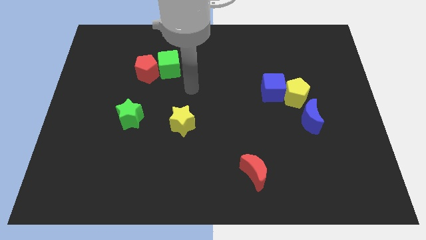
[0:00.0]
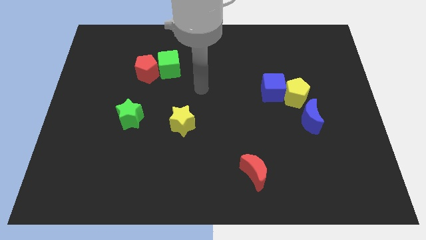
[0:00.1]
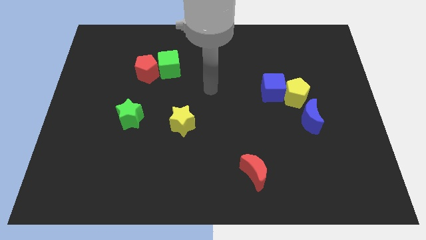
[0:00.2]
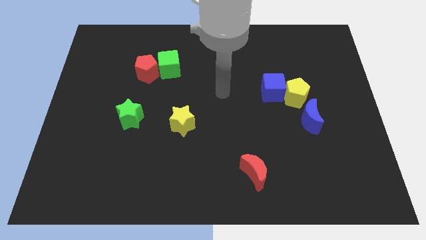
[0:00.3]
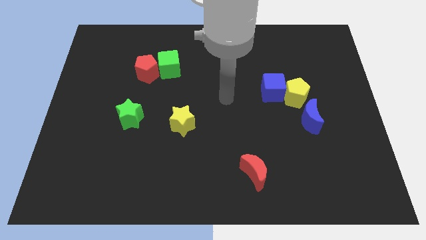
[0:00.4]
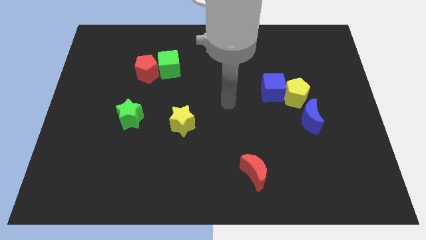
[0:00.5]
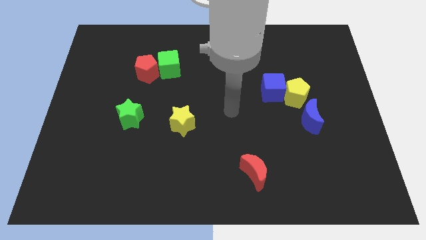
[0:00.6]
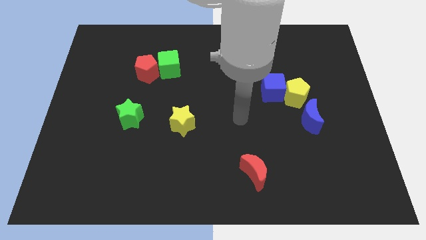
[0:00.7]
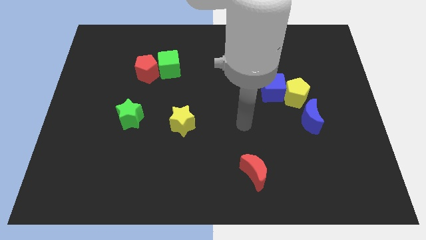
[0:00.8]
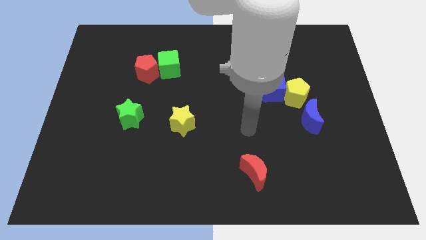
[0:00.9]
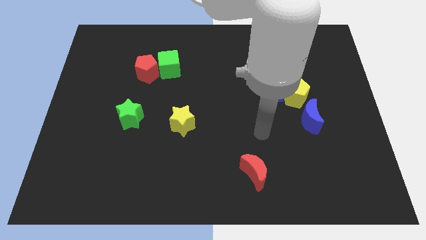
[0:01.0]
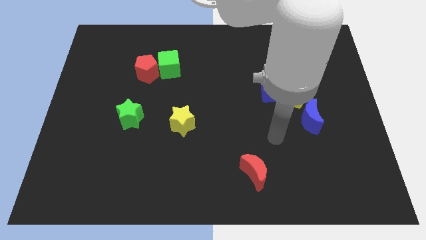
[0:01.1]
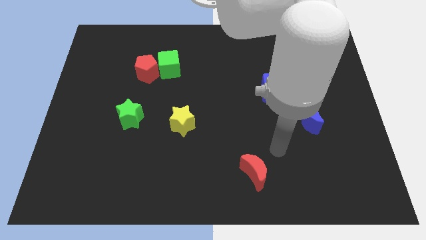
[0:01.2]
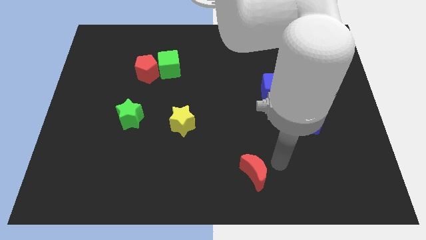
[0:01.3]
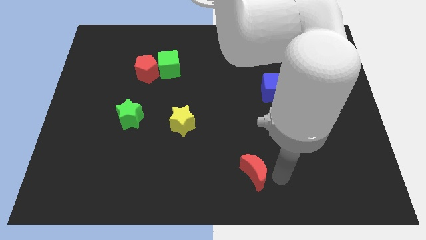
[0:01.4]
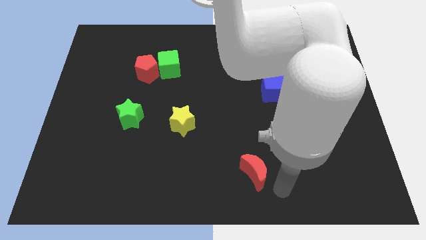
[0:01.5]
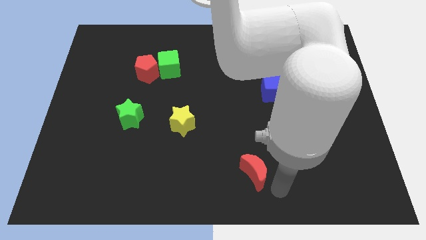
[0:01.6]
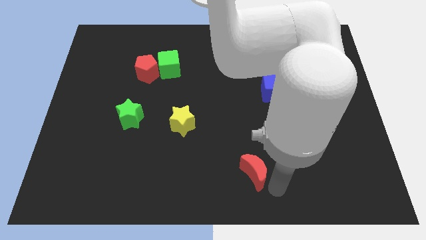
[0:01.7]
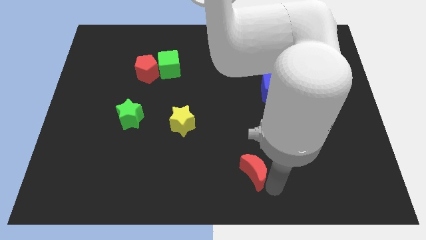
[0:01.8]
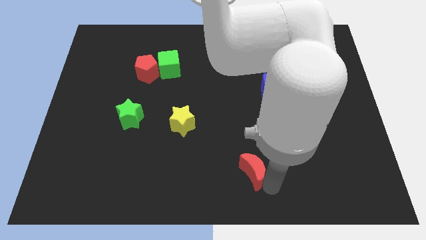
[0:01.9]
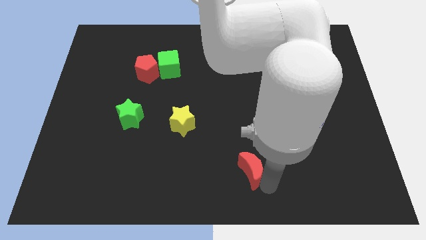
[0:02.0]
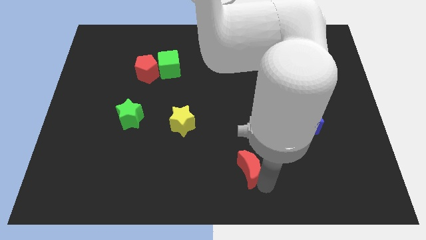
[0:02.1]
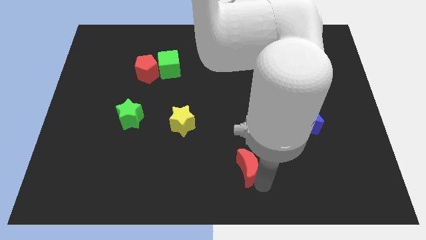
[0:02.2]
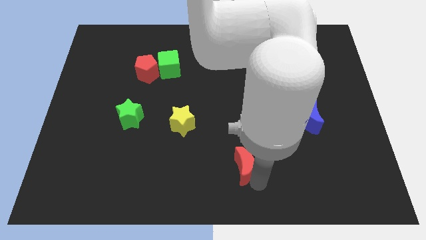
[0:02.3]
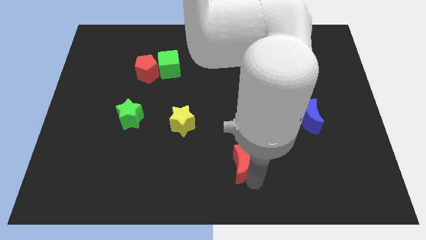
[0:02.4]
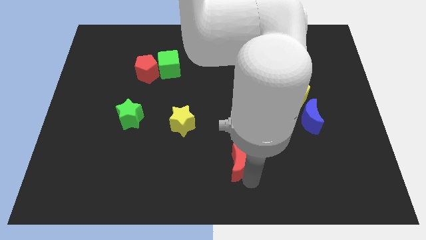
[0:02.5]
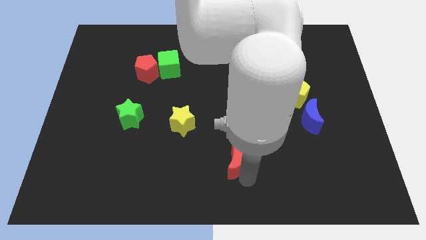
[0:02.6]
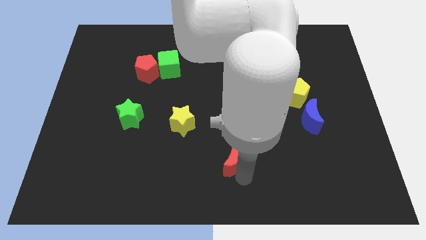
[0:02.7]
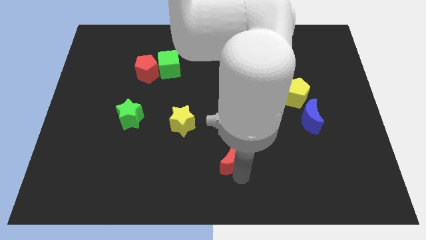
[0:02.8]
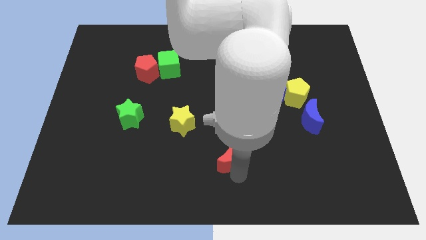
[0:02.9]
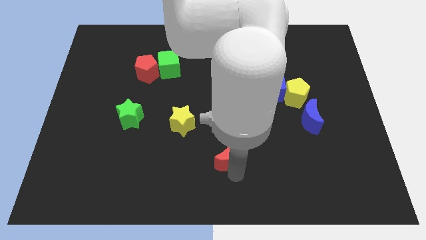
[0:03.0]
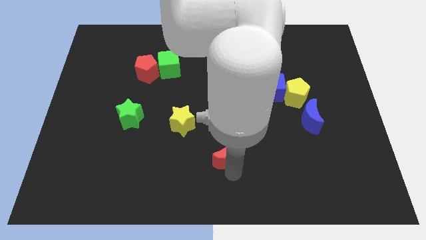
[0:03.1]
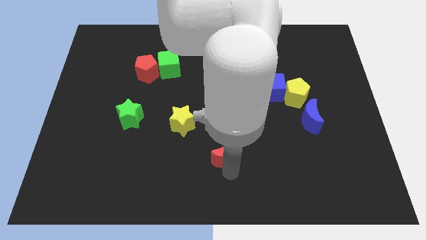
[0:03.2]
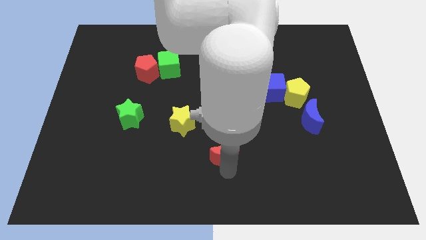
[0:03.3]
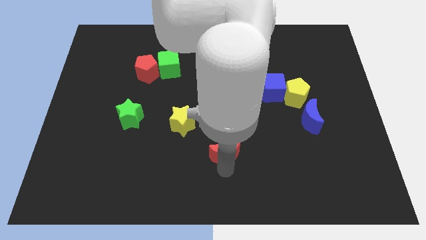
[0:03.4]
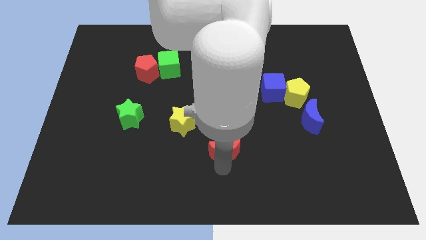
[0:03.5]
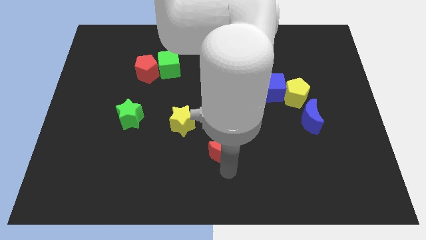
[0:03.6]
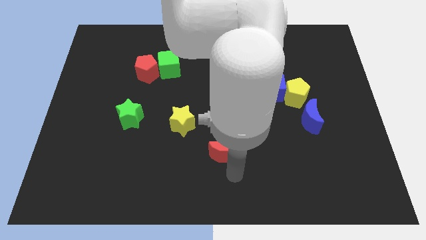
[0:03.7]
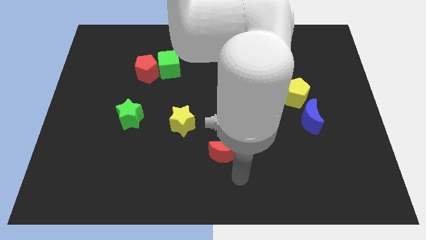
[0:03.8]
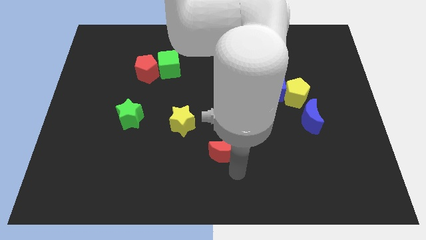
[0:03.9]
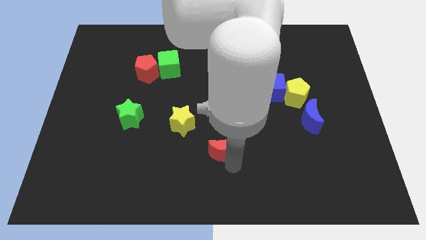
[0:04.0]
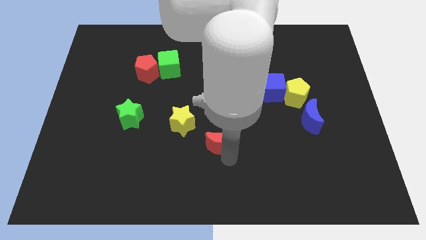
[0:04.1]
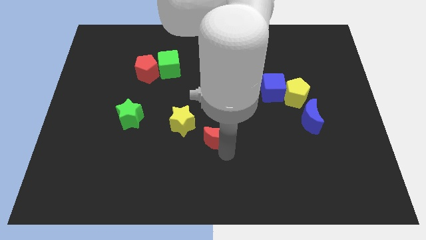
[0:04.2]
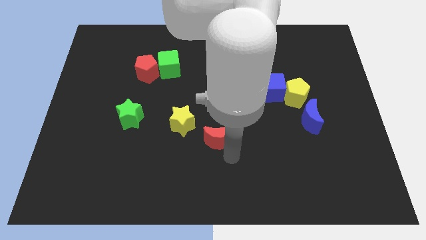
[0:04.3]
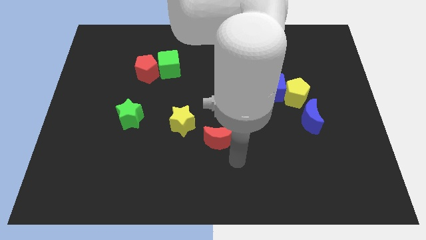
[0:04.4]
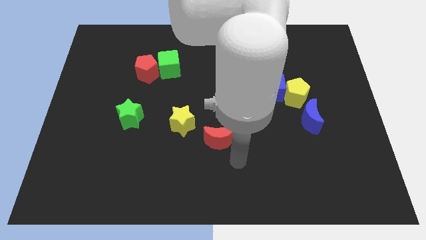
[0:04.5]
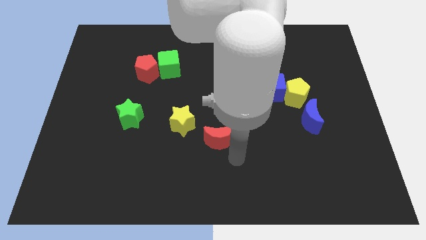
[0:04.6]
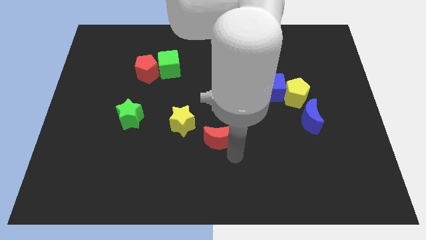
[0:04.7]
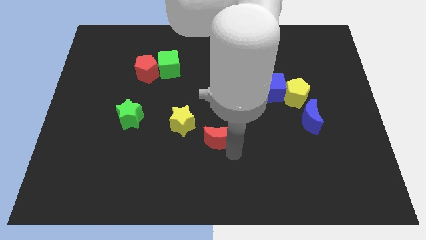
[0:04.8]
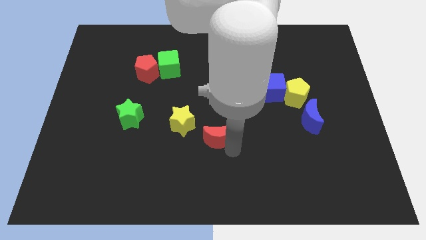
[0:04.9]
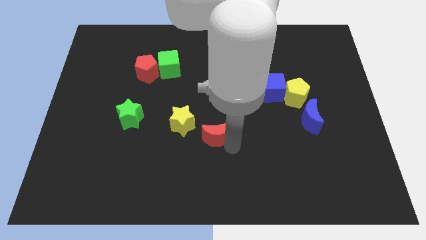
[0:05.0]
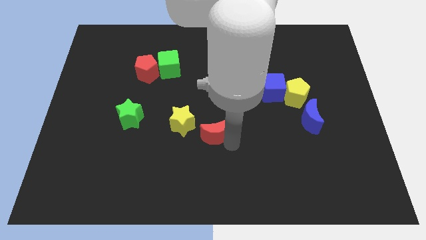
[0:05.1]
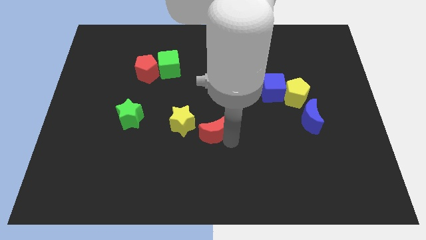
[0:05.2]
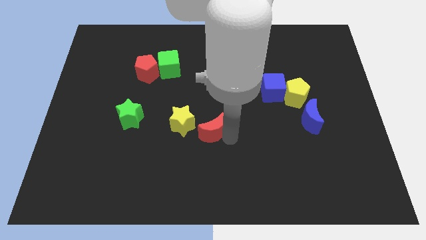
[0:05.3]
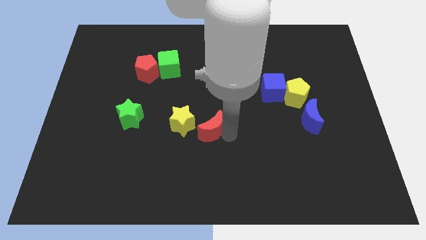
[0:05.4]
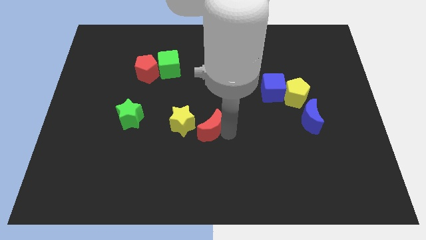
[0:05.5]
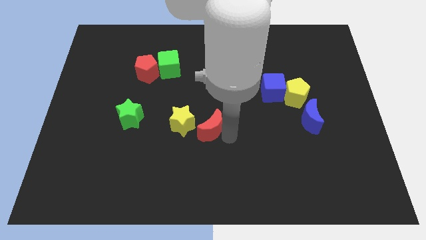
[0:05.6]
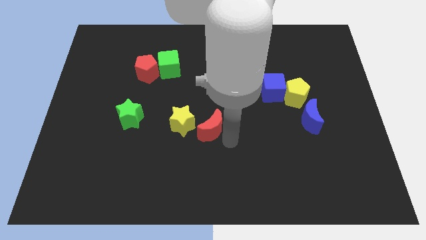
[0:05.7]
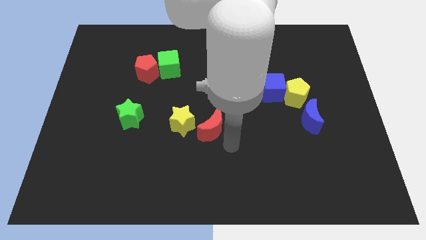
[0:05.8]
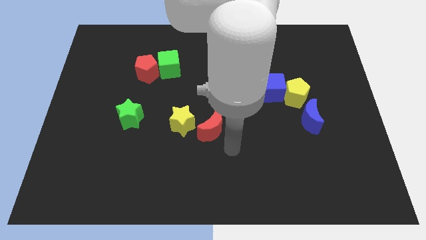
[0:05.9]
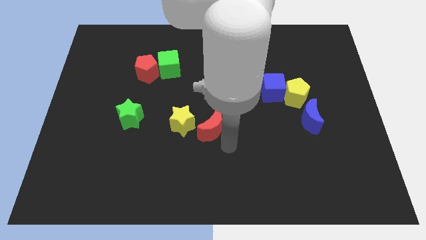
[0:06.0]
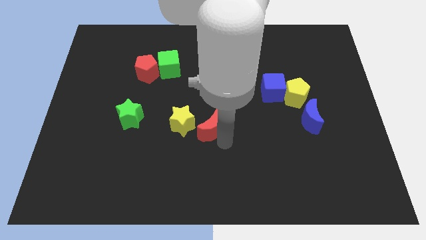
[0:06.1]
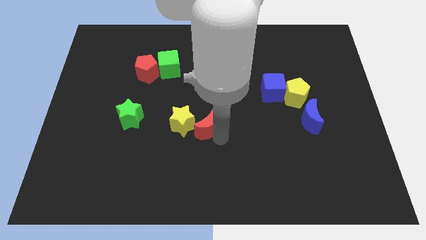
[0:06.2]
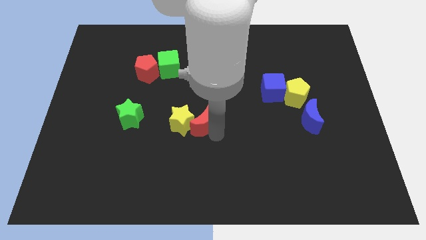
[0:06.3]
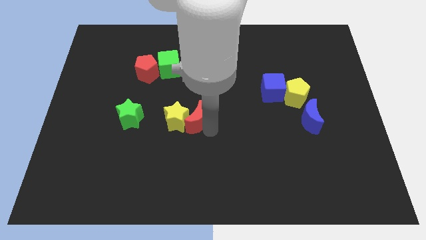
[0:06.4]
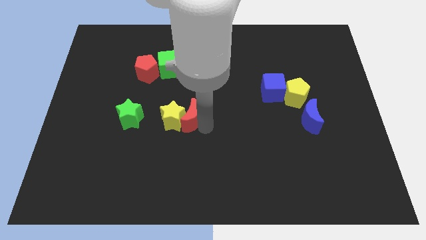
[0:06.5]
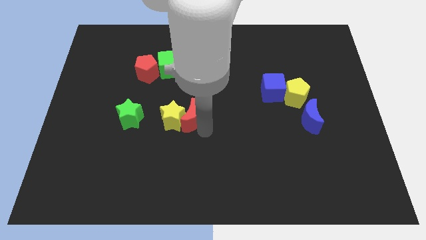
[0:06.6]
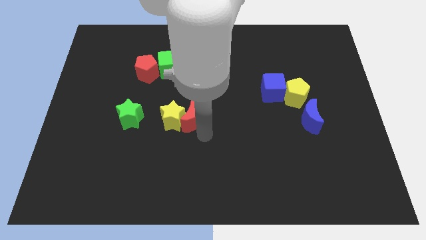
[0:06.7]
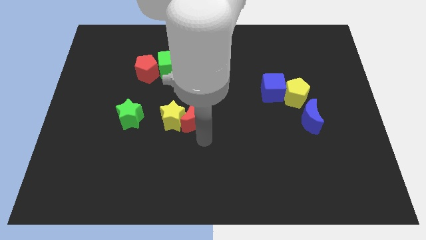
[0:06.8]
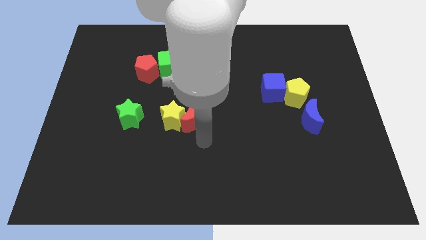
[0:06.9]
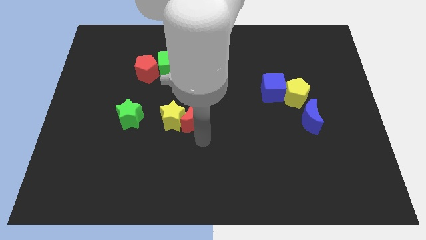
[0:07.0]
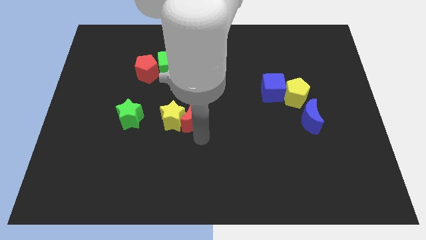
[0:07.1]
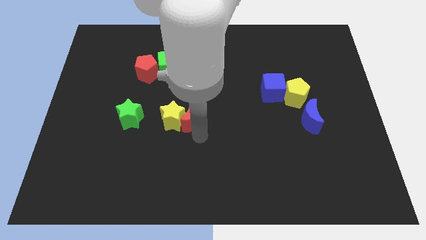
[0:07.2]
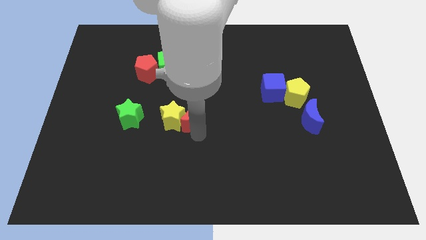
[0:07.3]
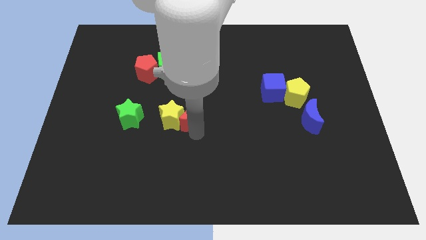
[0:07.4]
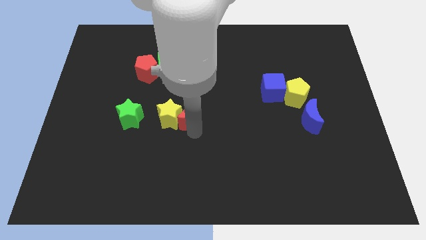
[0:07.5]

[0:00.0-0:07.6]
push the red moon upwards and to the left diagonally

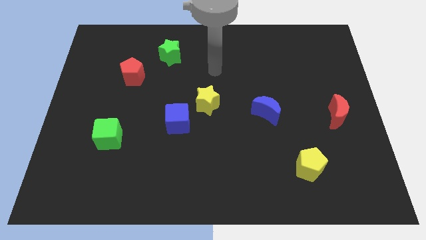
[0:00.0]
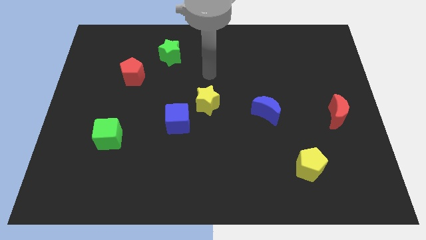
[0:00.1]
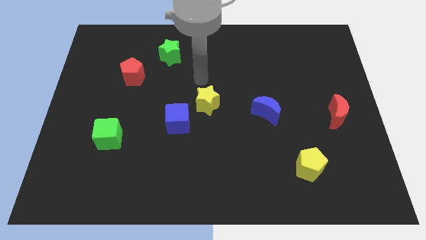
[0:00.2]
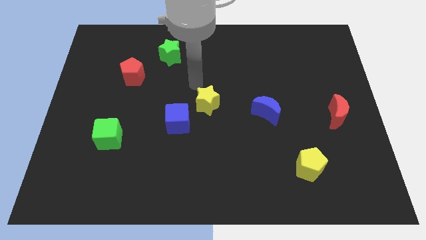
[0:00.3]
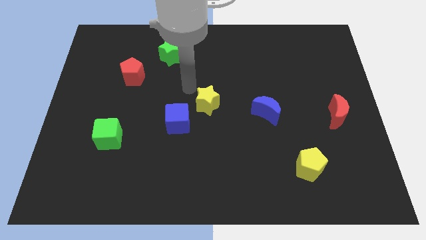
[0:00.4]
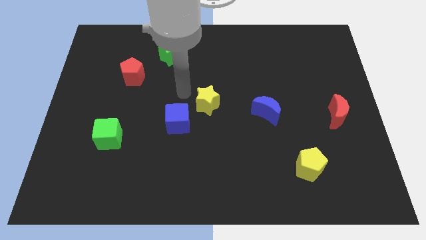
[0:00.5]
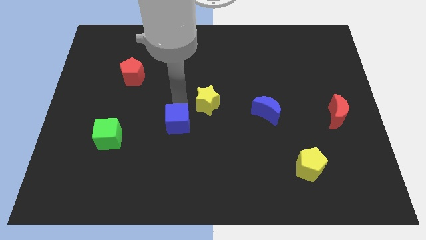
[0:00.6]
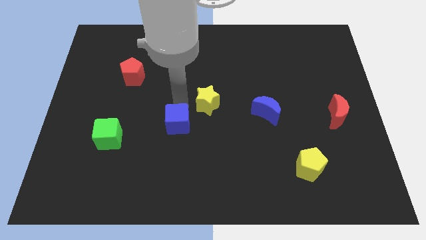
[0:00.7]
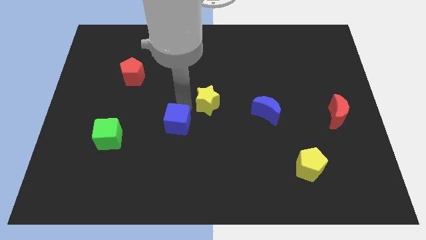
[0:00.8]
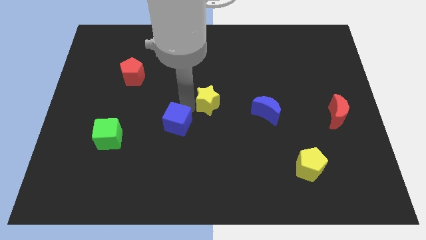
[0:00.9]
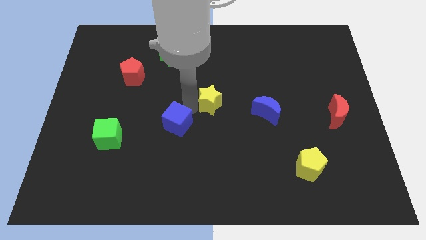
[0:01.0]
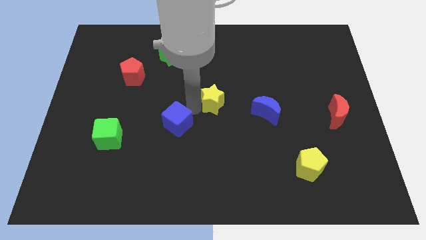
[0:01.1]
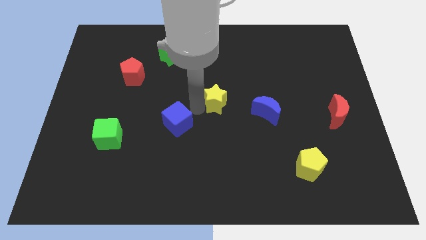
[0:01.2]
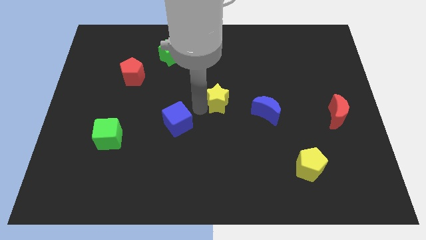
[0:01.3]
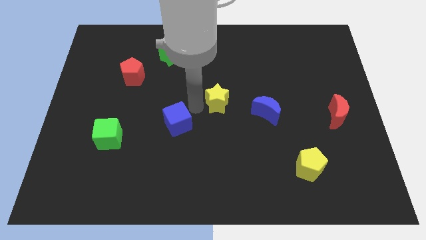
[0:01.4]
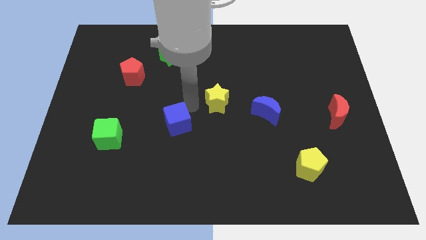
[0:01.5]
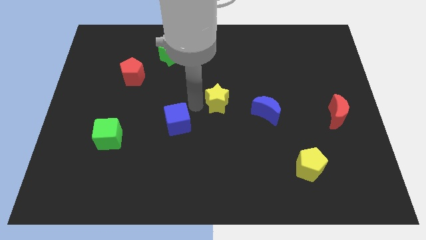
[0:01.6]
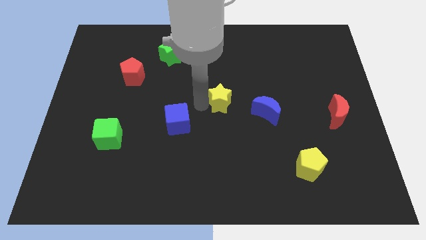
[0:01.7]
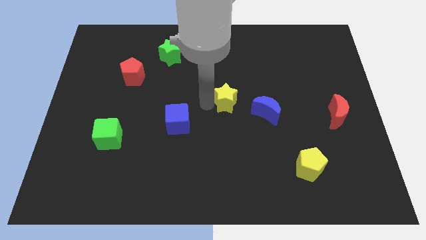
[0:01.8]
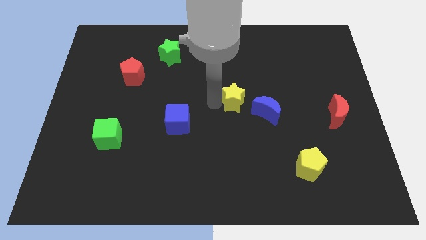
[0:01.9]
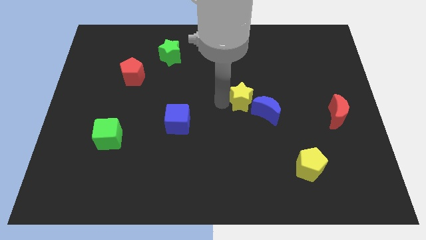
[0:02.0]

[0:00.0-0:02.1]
slide the yellow star to the right a little bit
